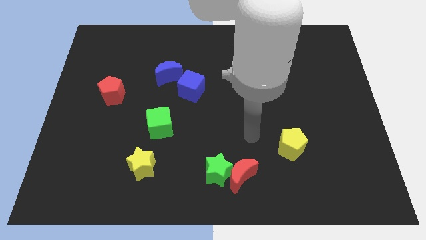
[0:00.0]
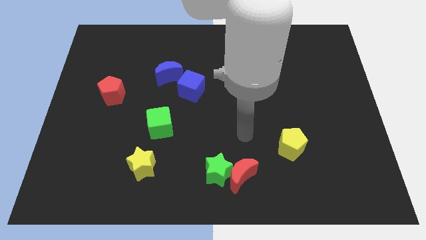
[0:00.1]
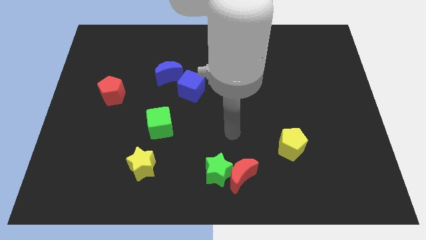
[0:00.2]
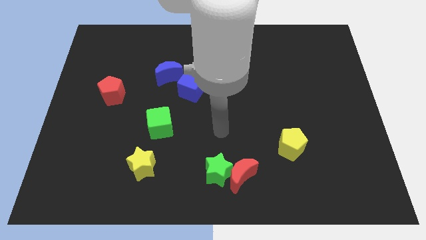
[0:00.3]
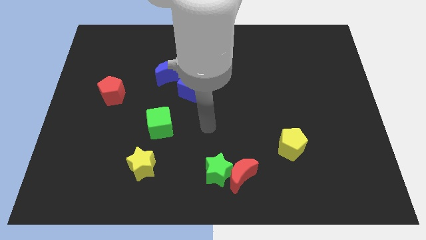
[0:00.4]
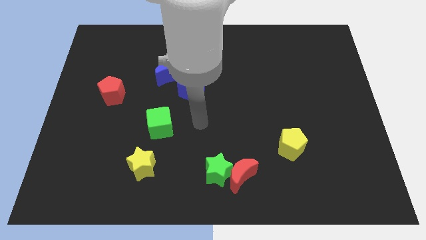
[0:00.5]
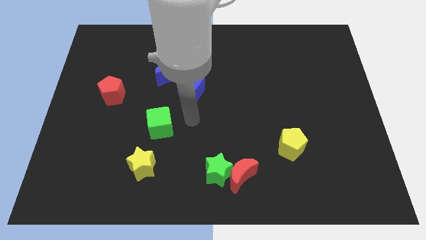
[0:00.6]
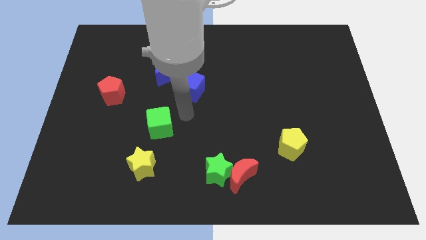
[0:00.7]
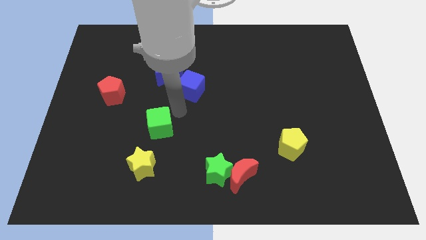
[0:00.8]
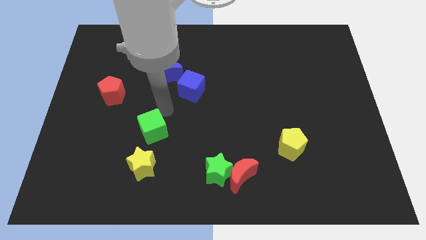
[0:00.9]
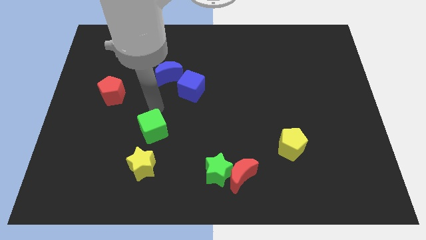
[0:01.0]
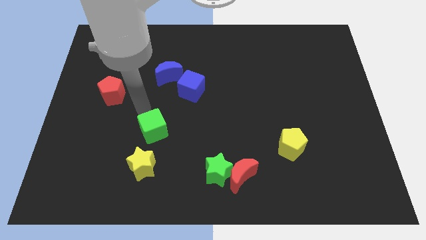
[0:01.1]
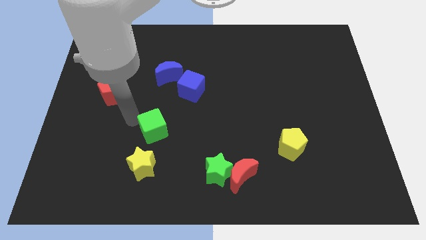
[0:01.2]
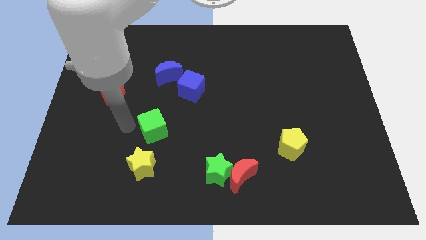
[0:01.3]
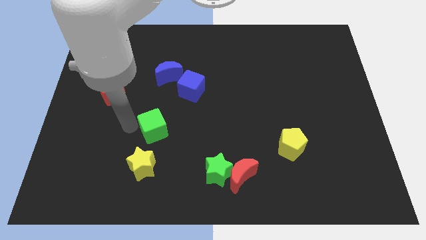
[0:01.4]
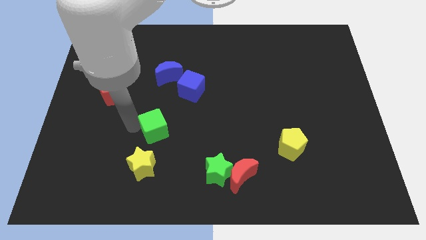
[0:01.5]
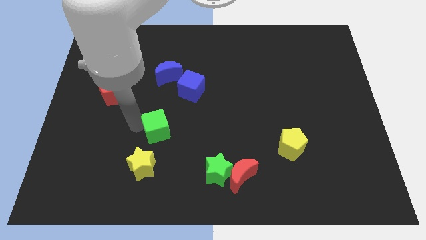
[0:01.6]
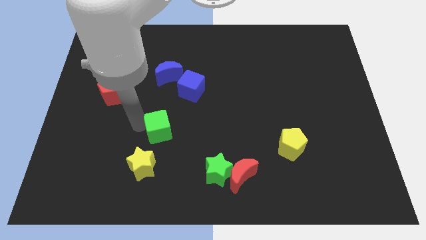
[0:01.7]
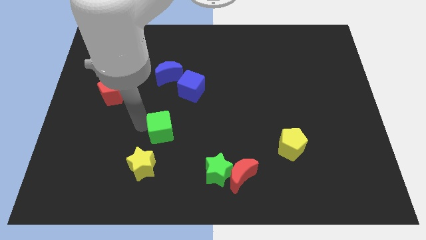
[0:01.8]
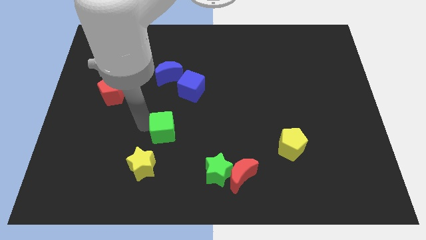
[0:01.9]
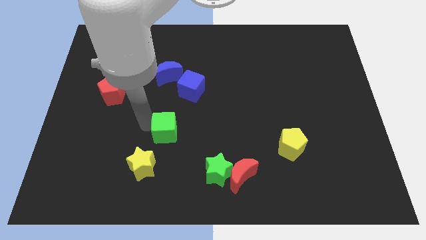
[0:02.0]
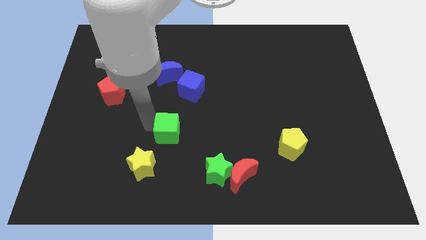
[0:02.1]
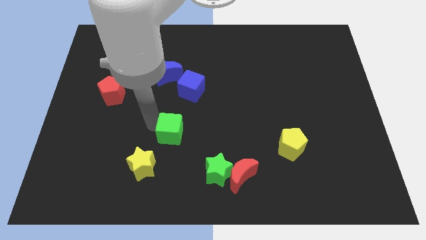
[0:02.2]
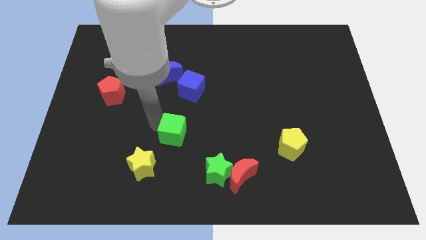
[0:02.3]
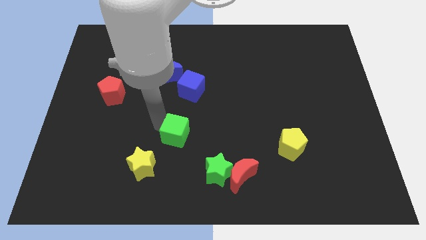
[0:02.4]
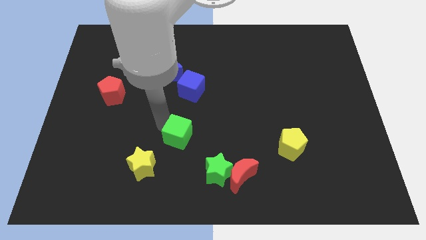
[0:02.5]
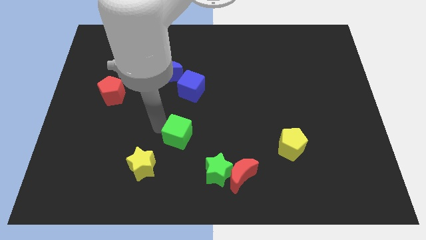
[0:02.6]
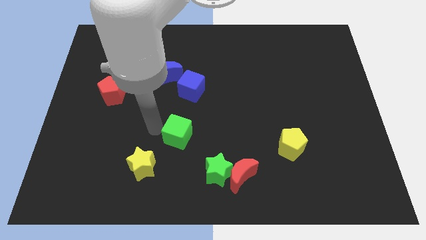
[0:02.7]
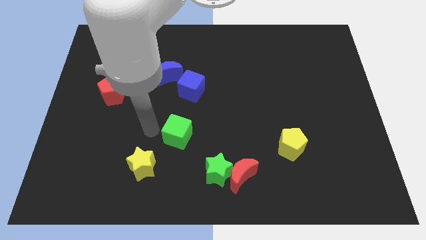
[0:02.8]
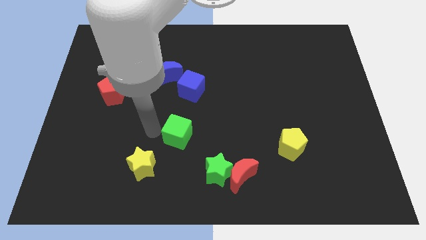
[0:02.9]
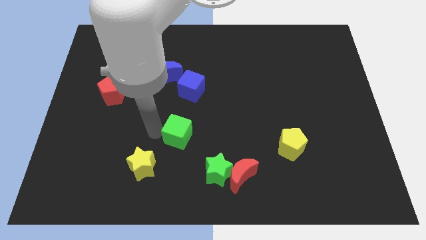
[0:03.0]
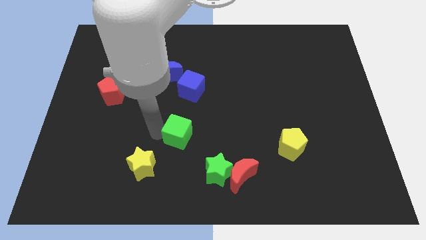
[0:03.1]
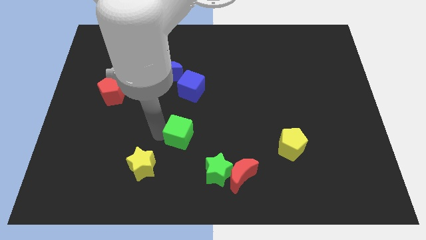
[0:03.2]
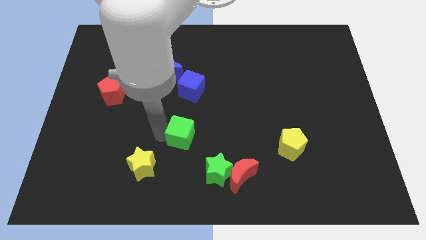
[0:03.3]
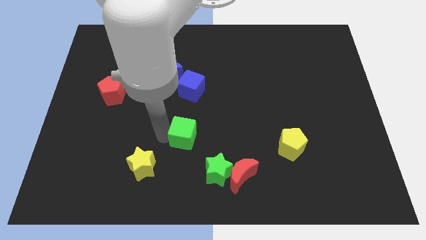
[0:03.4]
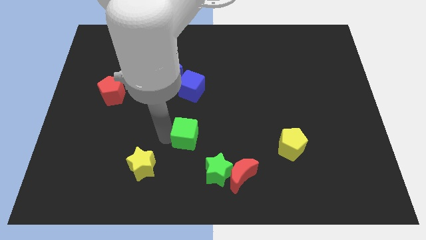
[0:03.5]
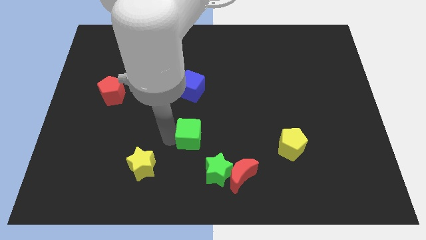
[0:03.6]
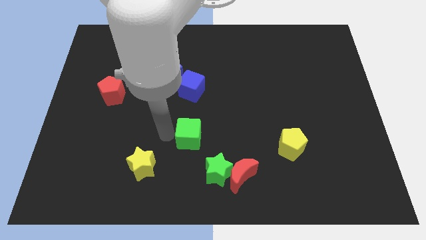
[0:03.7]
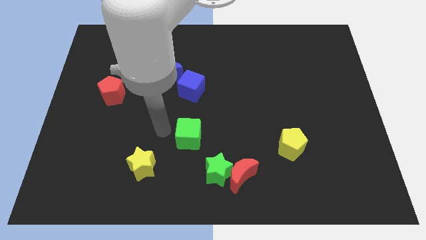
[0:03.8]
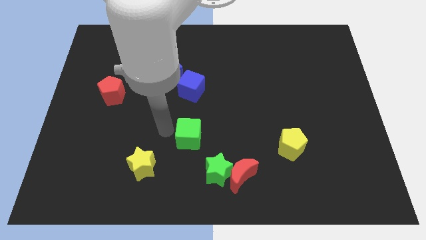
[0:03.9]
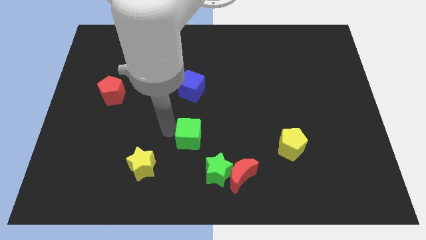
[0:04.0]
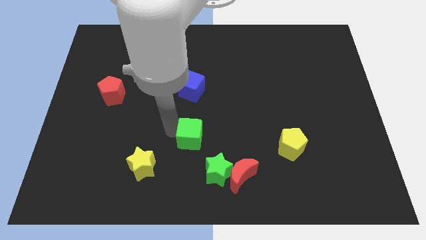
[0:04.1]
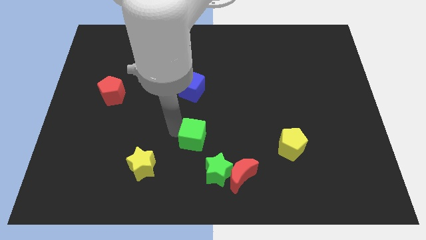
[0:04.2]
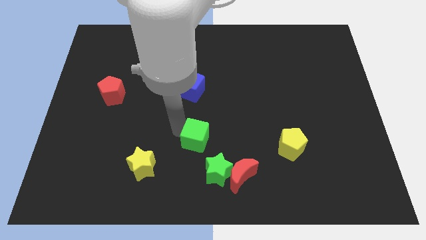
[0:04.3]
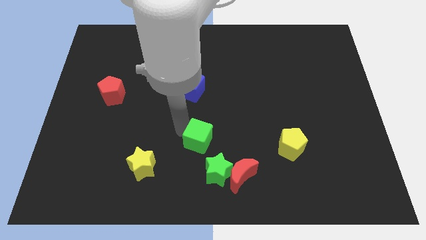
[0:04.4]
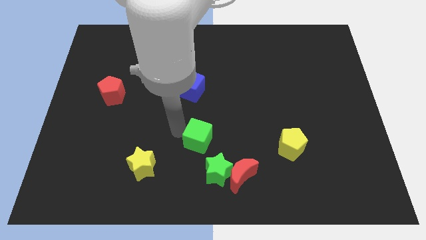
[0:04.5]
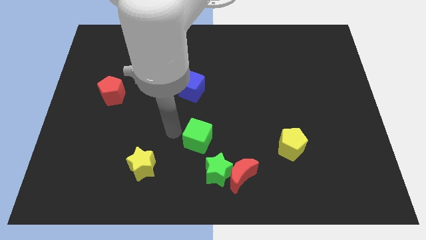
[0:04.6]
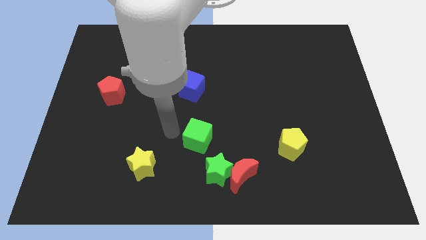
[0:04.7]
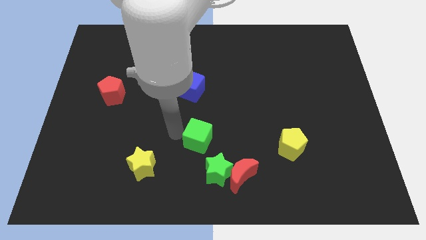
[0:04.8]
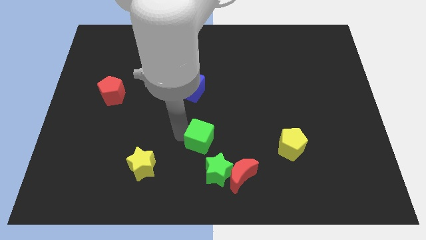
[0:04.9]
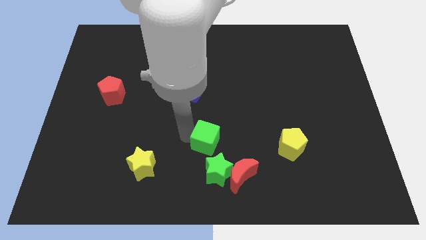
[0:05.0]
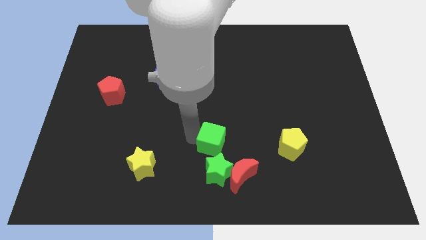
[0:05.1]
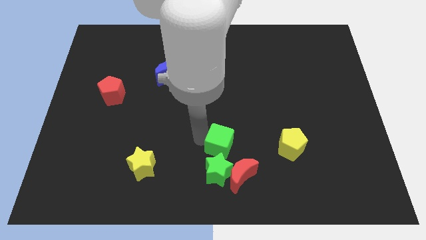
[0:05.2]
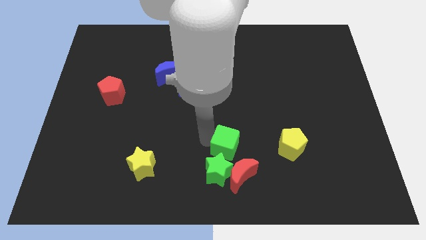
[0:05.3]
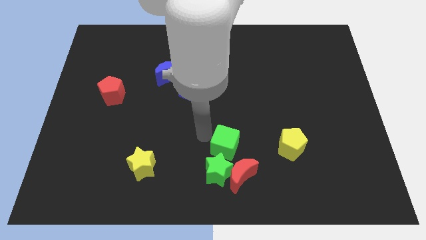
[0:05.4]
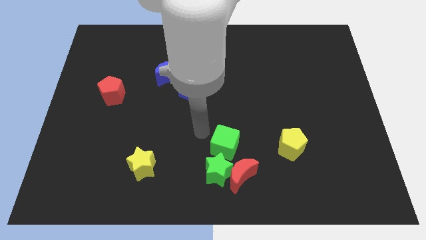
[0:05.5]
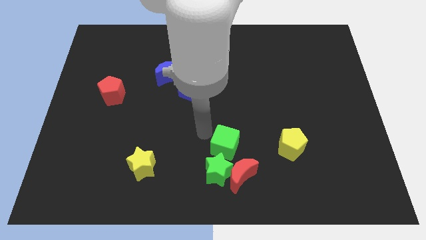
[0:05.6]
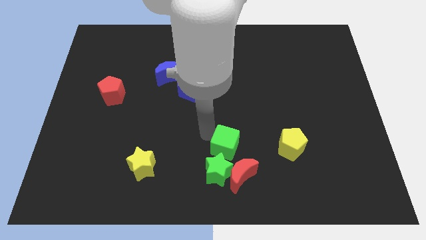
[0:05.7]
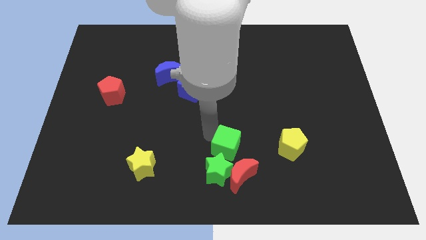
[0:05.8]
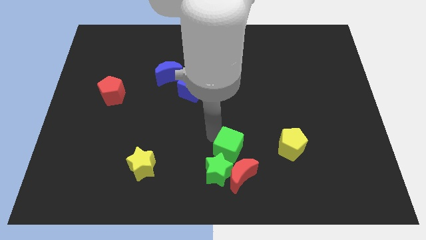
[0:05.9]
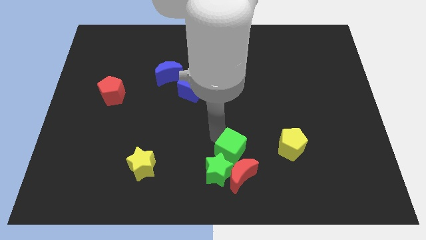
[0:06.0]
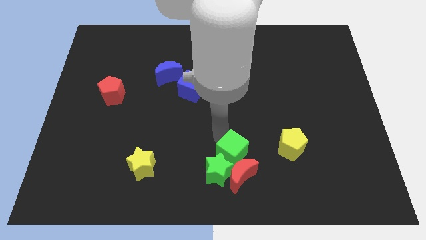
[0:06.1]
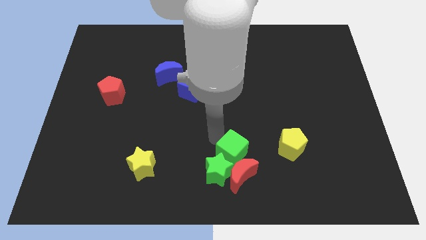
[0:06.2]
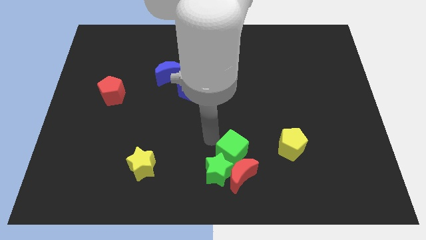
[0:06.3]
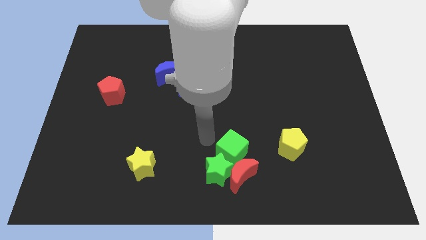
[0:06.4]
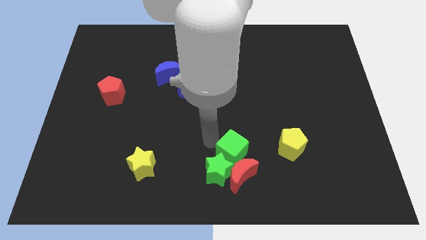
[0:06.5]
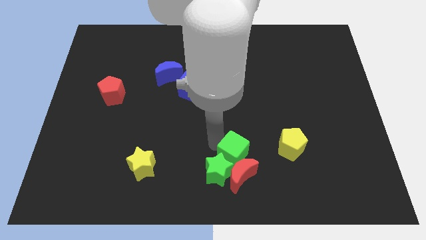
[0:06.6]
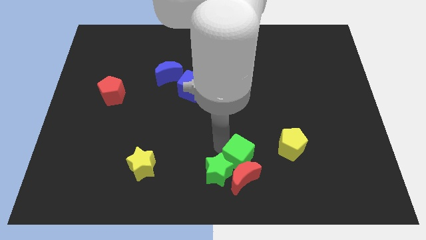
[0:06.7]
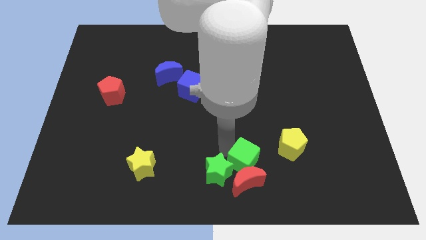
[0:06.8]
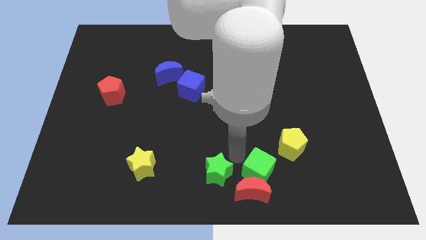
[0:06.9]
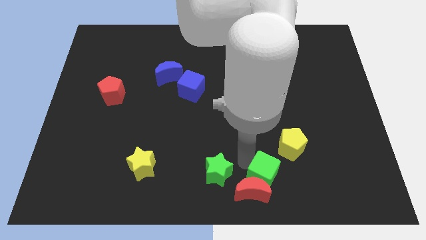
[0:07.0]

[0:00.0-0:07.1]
move the green cube to the right side of the red moon

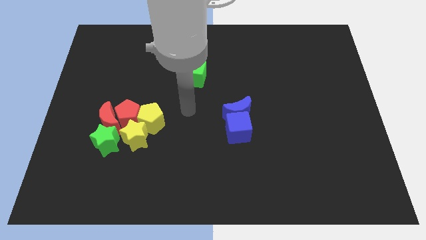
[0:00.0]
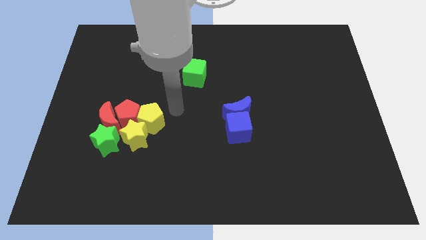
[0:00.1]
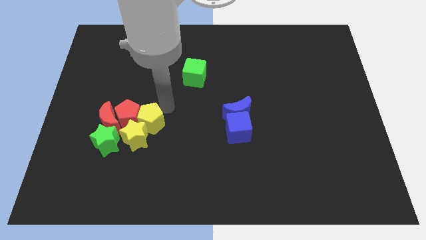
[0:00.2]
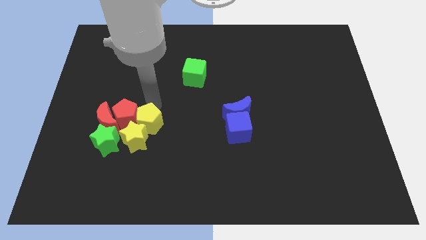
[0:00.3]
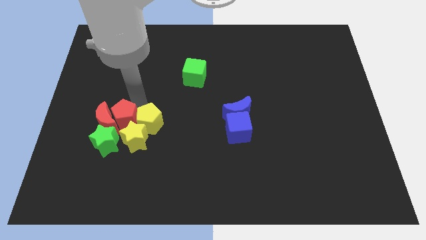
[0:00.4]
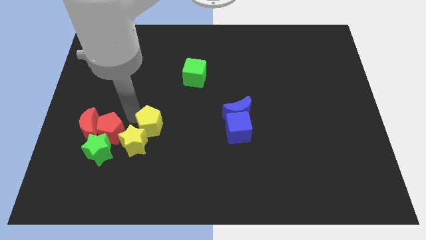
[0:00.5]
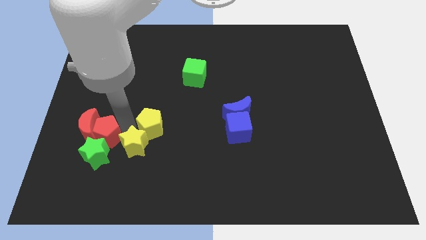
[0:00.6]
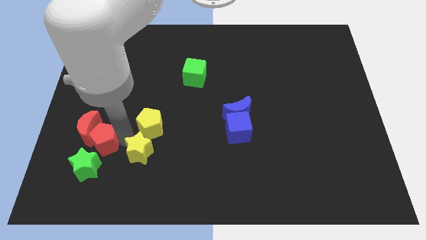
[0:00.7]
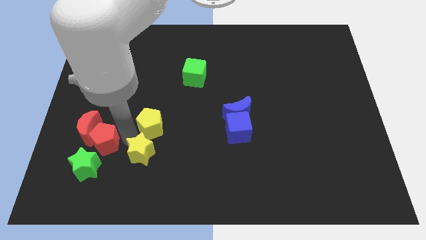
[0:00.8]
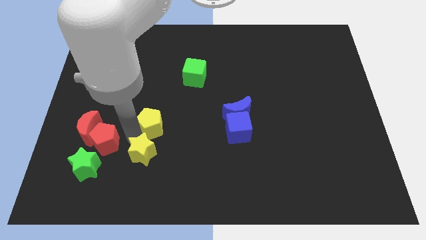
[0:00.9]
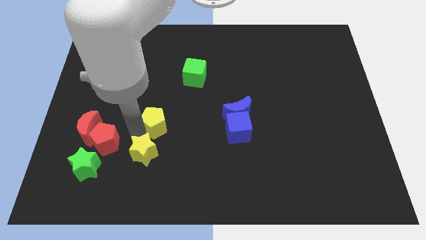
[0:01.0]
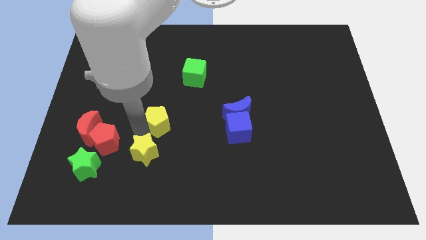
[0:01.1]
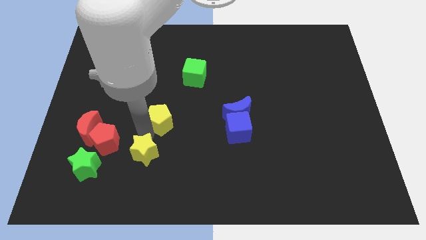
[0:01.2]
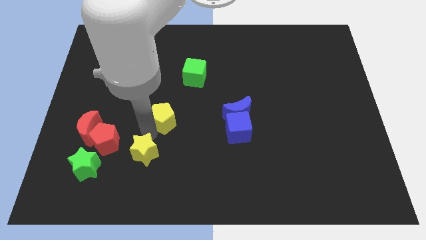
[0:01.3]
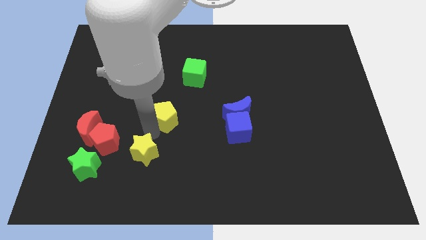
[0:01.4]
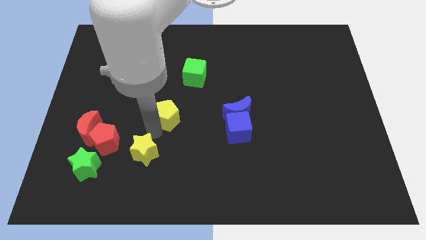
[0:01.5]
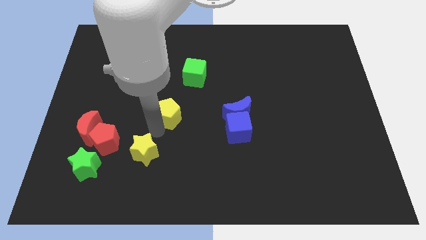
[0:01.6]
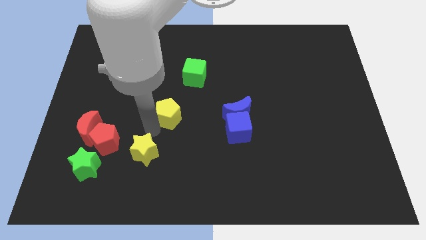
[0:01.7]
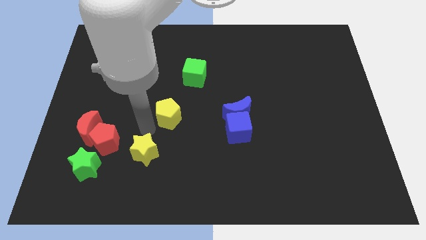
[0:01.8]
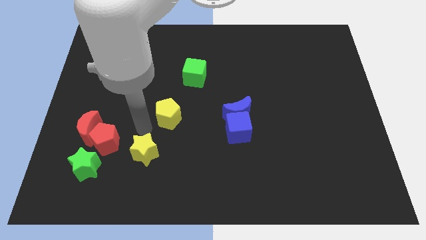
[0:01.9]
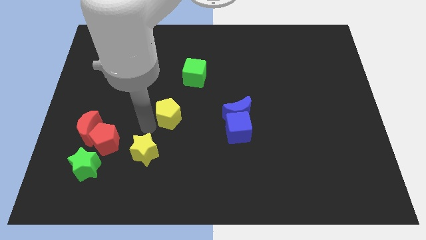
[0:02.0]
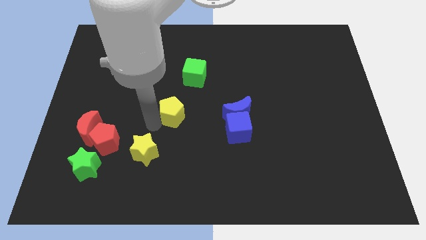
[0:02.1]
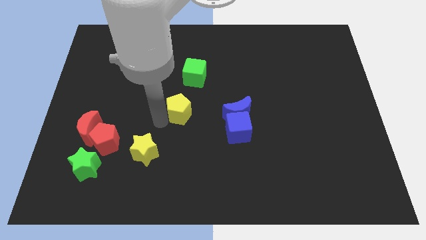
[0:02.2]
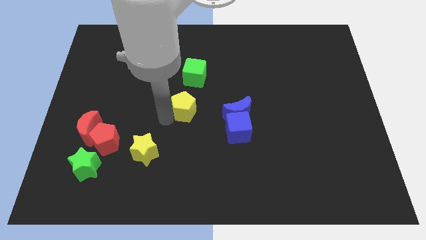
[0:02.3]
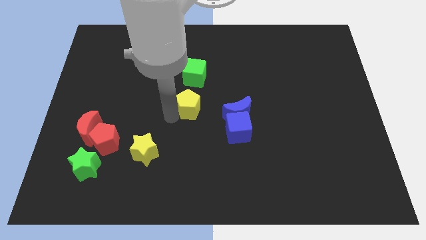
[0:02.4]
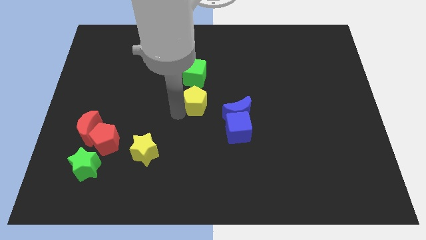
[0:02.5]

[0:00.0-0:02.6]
push the yellow pentagon diagonally up and to the left of the blue moon
